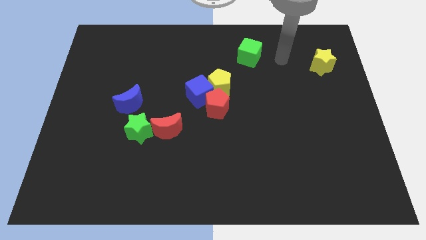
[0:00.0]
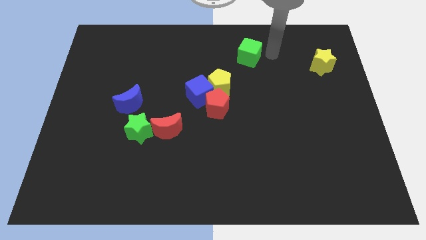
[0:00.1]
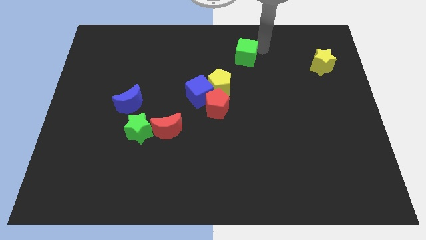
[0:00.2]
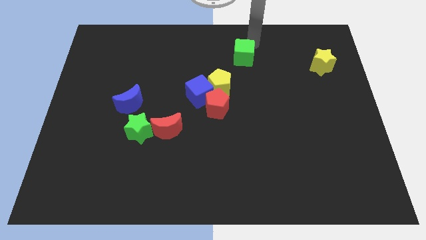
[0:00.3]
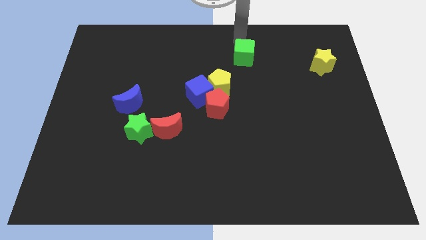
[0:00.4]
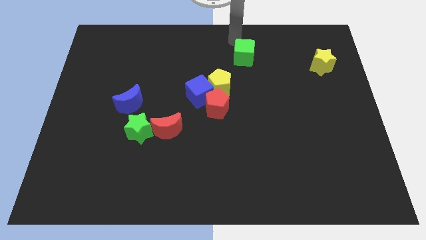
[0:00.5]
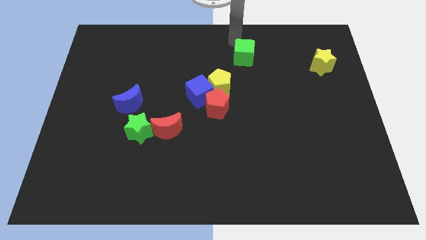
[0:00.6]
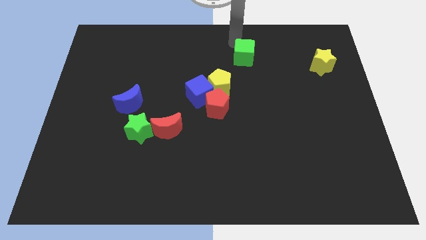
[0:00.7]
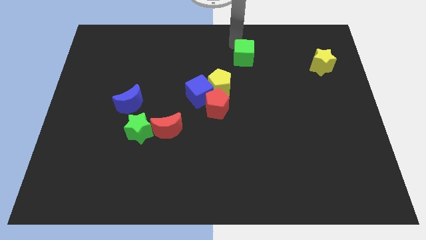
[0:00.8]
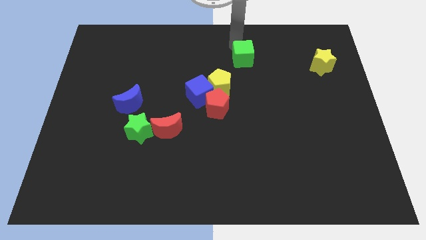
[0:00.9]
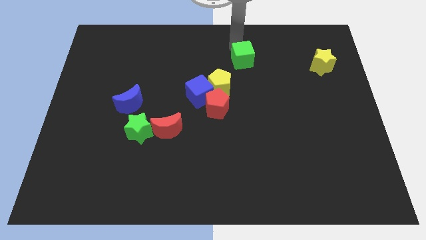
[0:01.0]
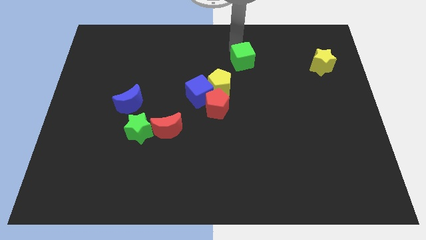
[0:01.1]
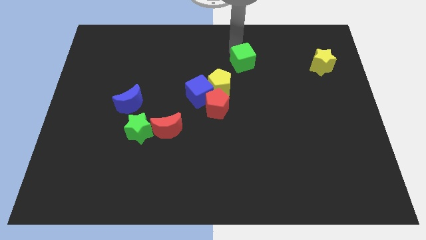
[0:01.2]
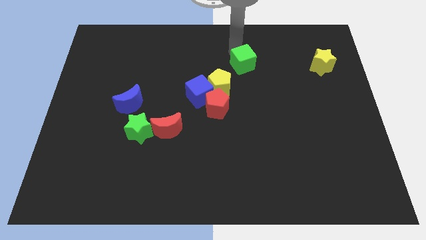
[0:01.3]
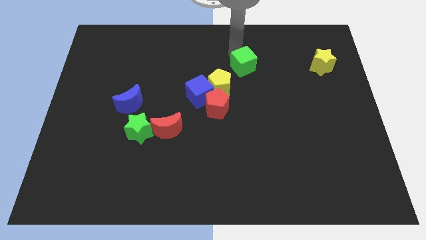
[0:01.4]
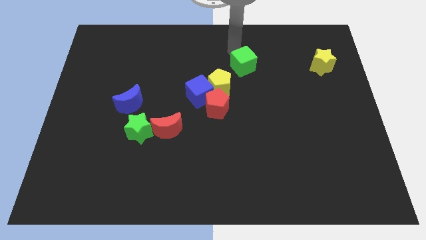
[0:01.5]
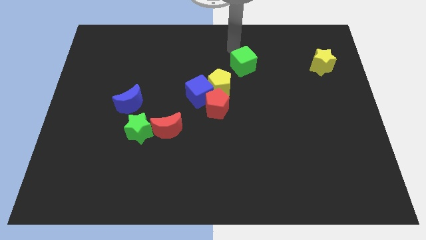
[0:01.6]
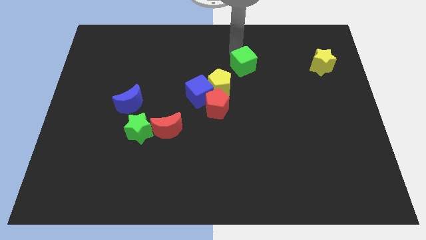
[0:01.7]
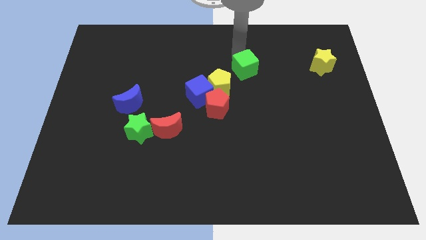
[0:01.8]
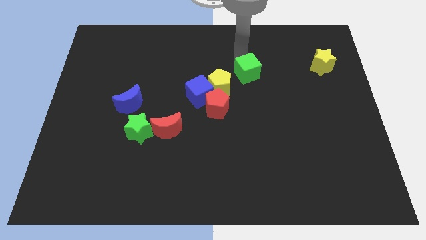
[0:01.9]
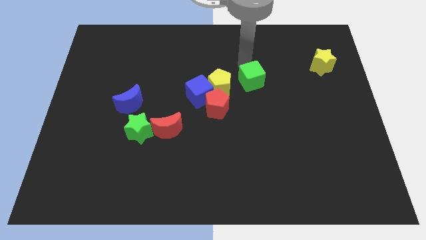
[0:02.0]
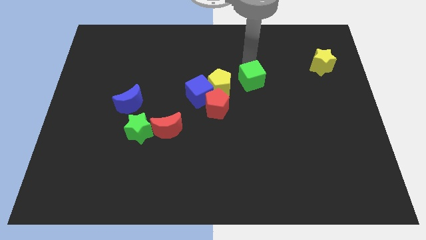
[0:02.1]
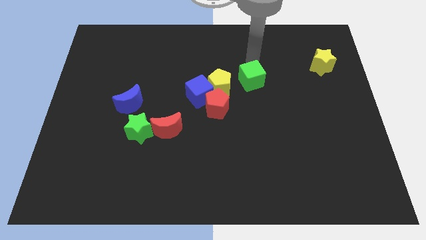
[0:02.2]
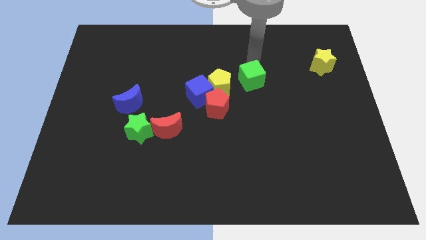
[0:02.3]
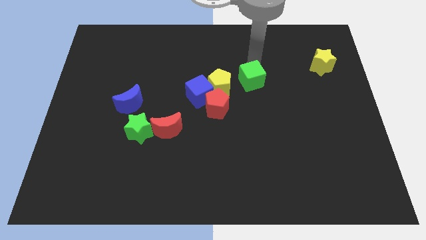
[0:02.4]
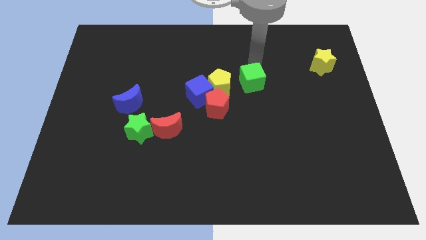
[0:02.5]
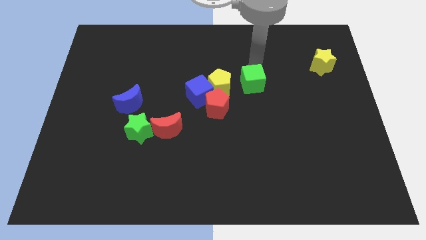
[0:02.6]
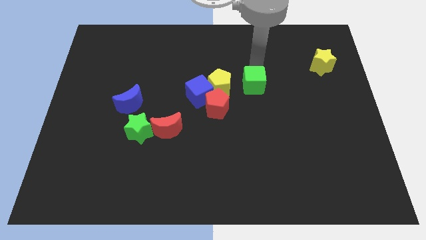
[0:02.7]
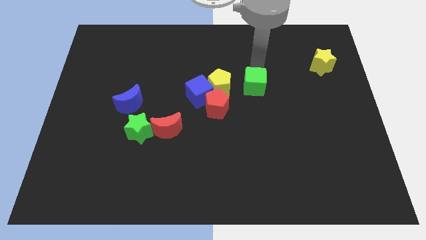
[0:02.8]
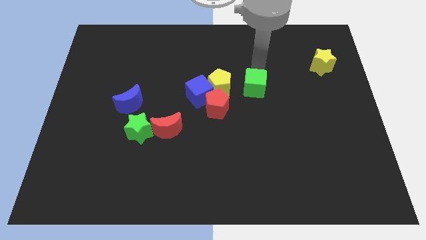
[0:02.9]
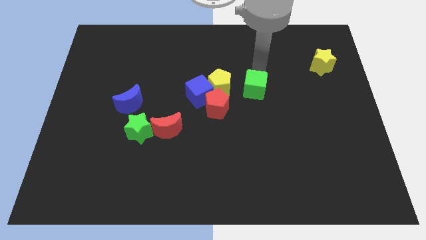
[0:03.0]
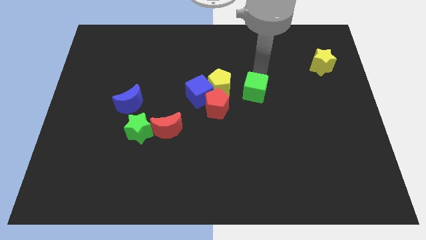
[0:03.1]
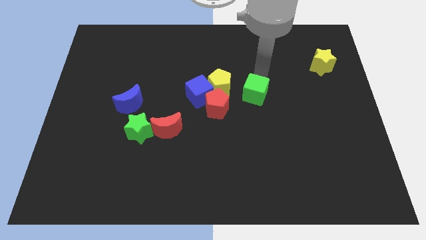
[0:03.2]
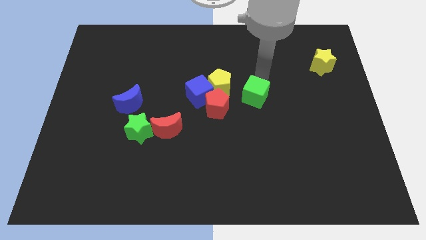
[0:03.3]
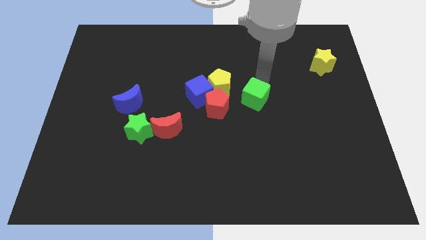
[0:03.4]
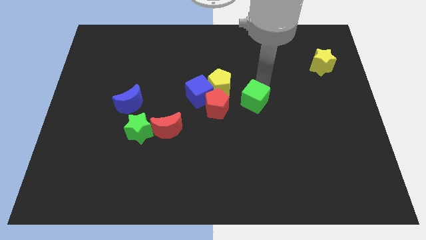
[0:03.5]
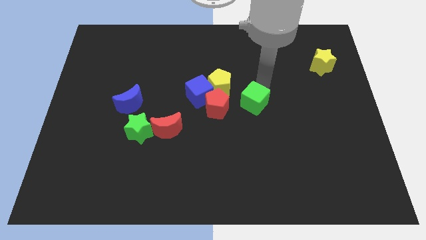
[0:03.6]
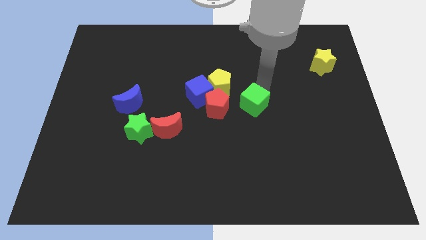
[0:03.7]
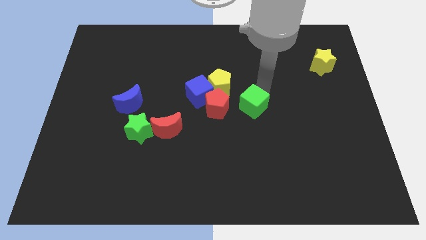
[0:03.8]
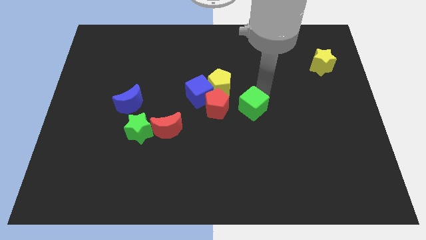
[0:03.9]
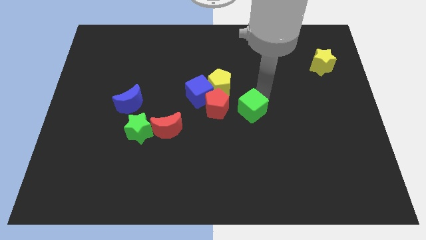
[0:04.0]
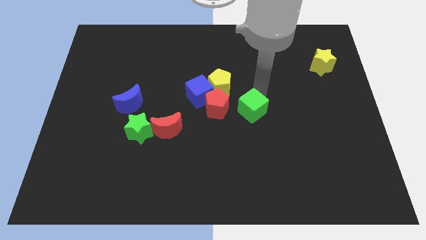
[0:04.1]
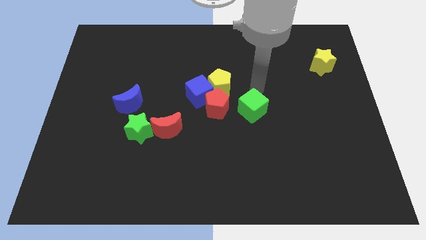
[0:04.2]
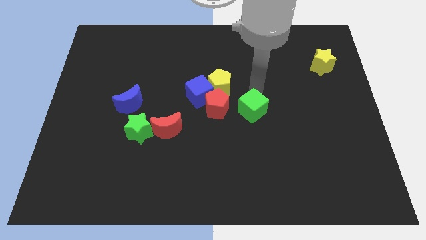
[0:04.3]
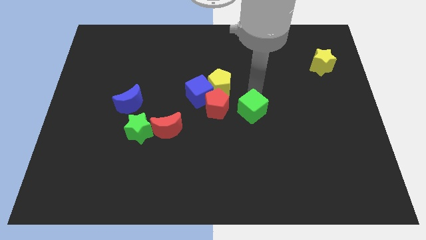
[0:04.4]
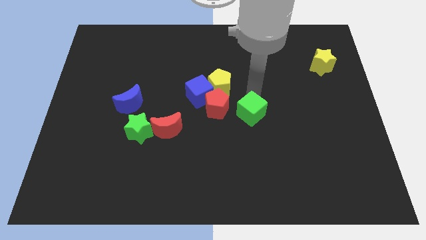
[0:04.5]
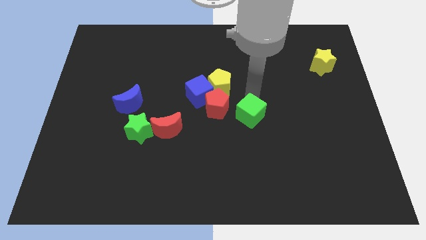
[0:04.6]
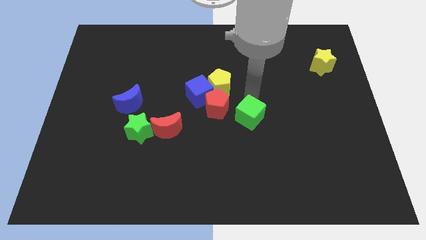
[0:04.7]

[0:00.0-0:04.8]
slide the green cube downwards

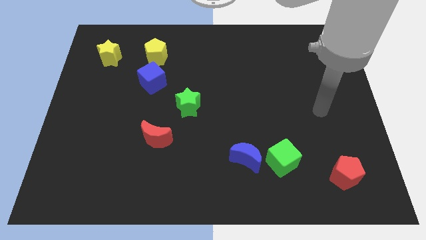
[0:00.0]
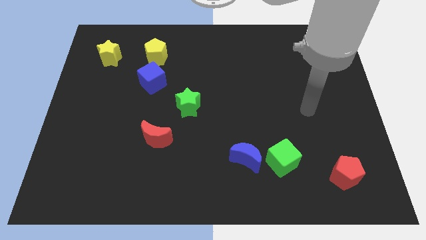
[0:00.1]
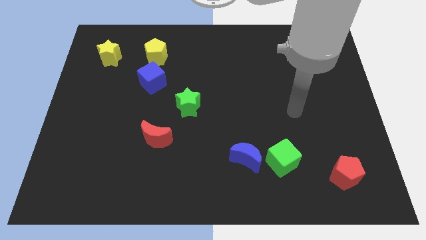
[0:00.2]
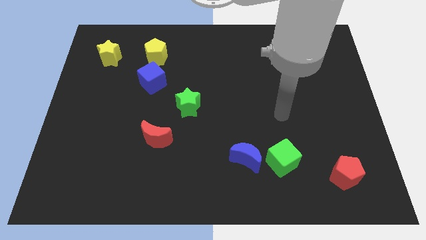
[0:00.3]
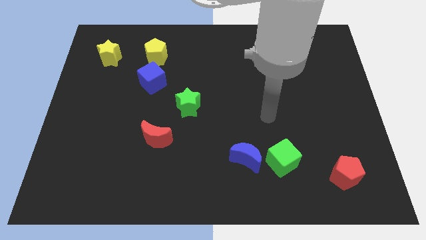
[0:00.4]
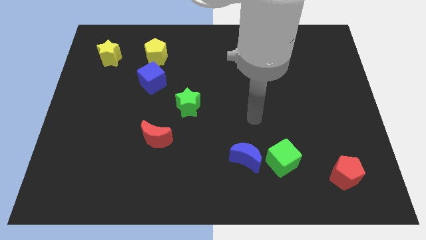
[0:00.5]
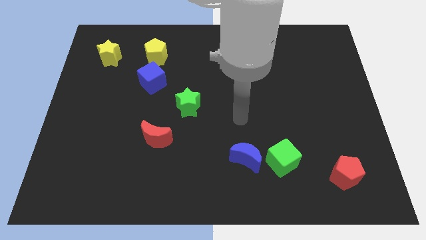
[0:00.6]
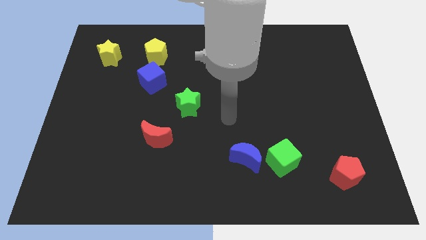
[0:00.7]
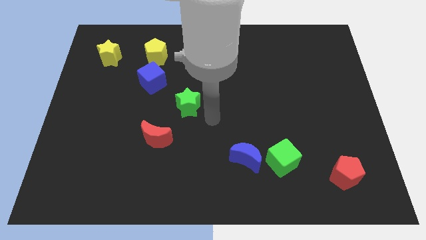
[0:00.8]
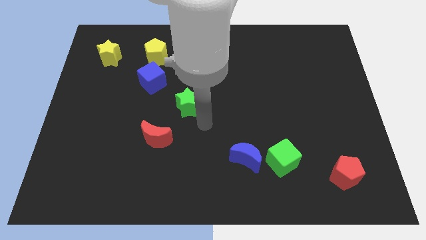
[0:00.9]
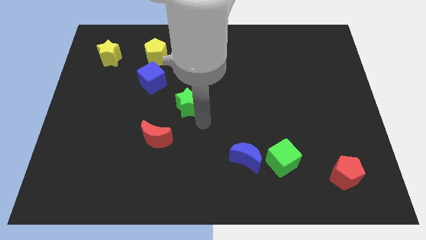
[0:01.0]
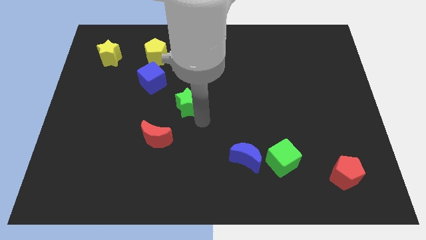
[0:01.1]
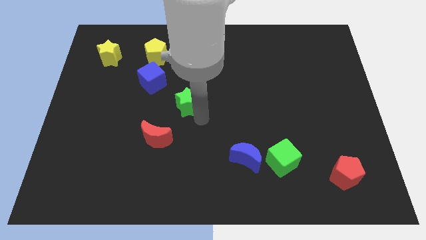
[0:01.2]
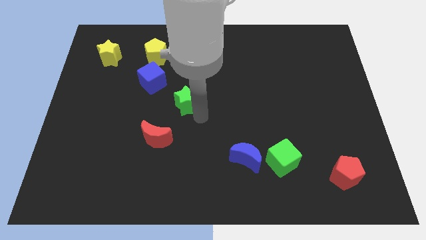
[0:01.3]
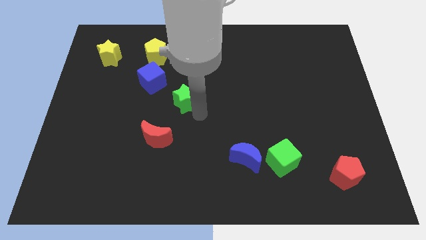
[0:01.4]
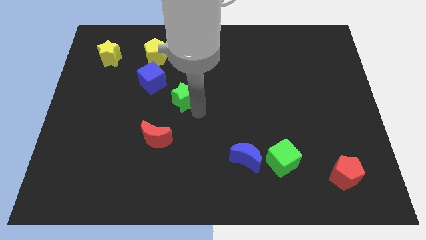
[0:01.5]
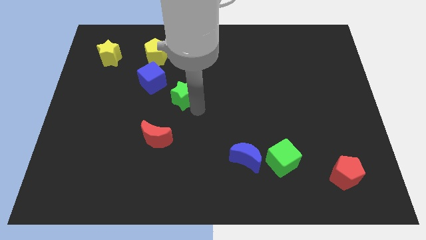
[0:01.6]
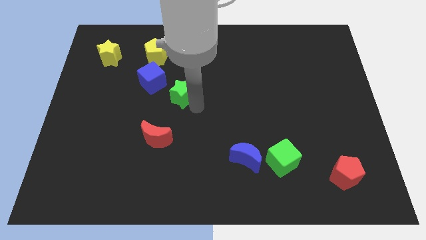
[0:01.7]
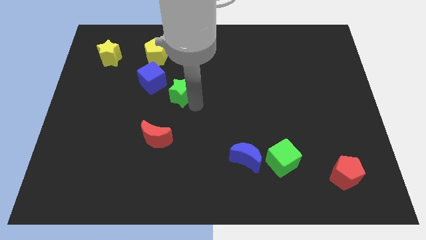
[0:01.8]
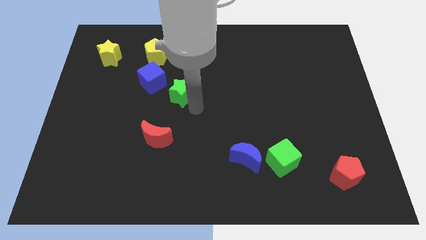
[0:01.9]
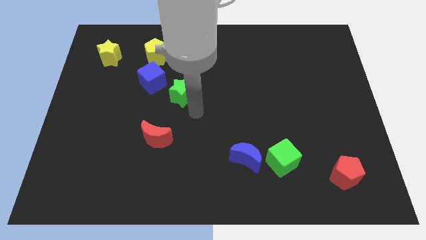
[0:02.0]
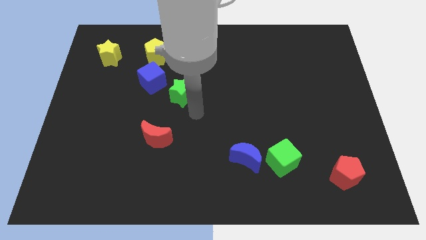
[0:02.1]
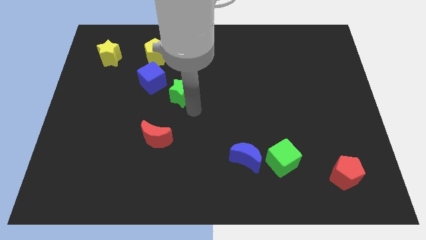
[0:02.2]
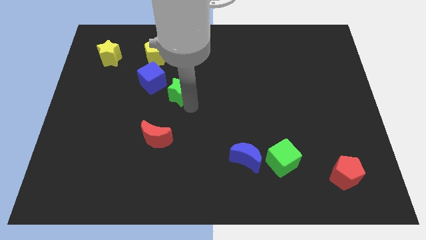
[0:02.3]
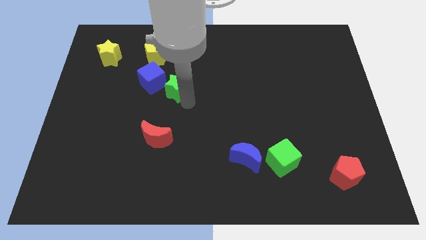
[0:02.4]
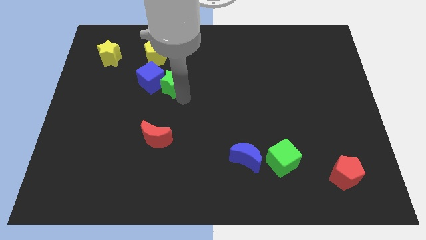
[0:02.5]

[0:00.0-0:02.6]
slide the green star a bit up and left diagonally

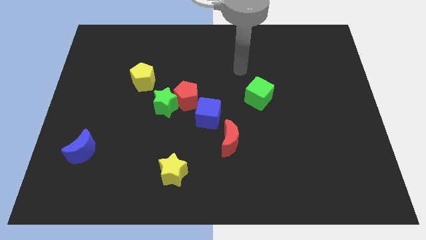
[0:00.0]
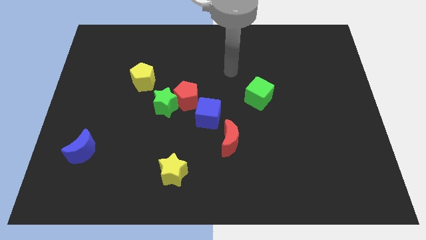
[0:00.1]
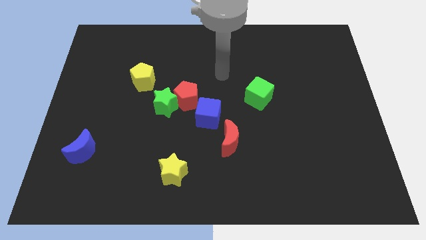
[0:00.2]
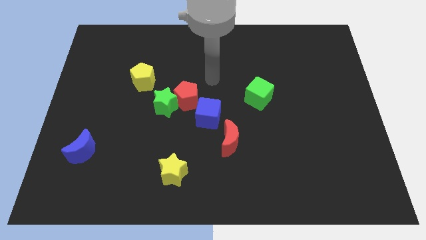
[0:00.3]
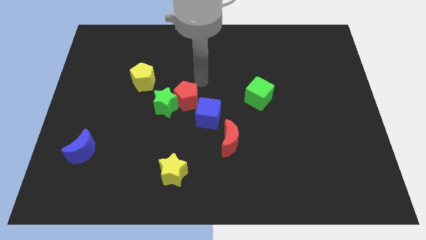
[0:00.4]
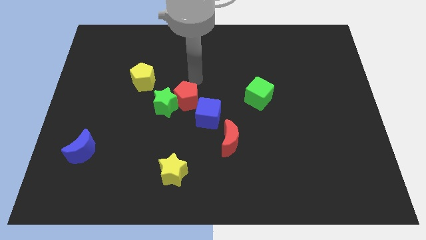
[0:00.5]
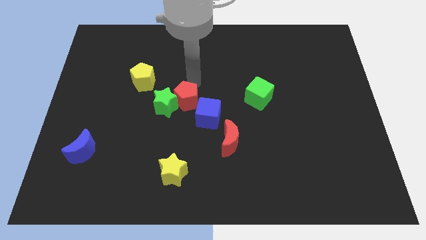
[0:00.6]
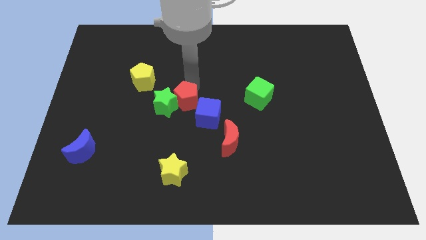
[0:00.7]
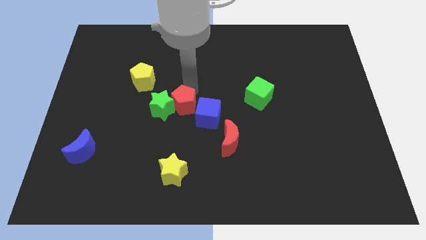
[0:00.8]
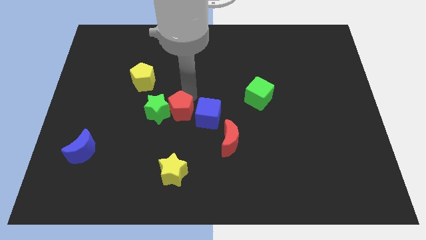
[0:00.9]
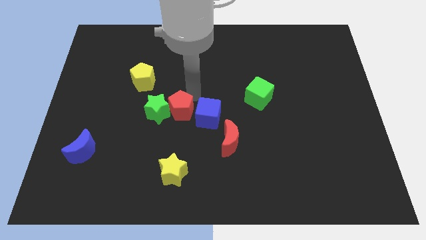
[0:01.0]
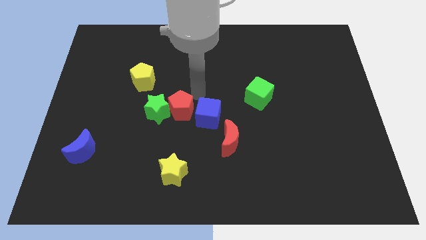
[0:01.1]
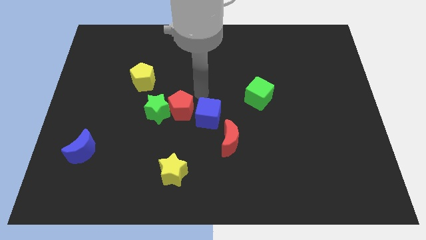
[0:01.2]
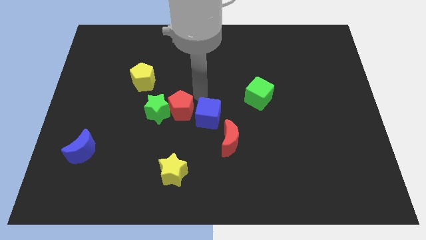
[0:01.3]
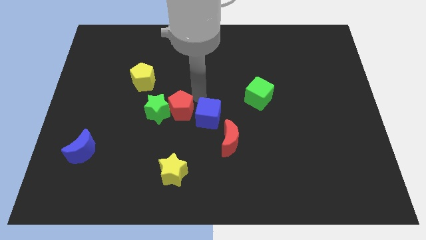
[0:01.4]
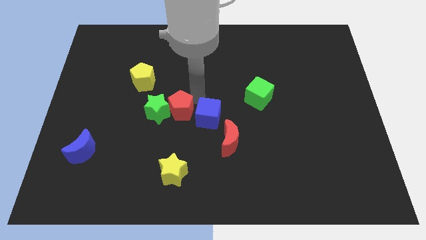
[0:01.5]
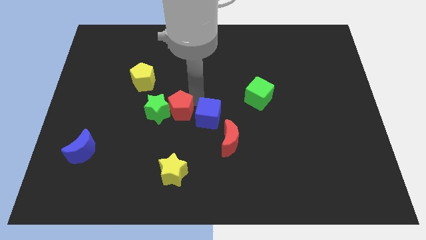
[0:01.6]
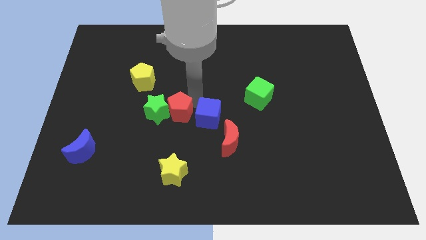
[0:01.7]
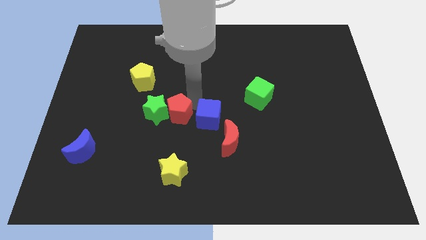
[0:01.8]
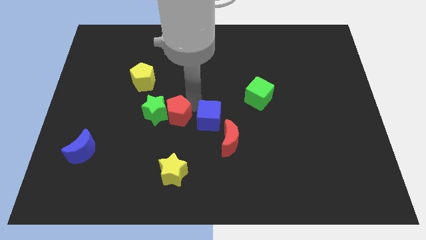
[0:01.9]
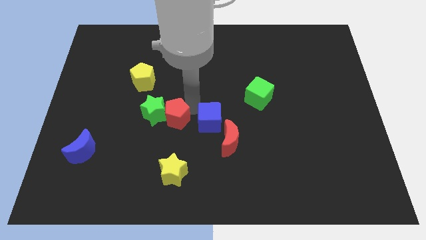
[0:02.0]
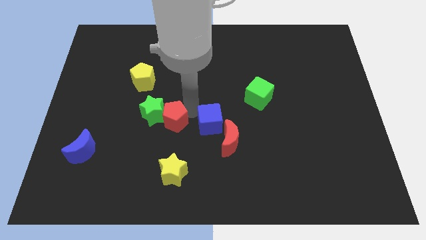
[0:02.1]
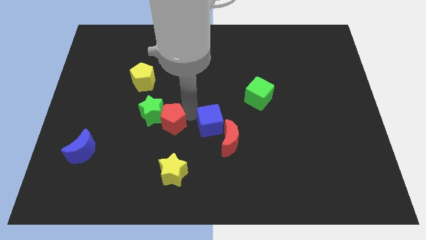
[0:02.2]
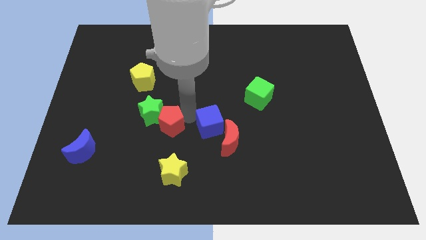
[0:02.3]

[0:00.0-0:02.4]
slightly move the red pentagon down and to the left
